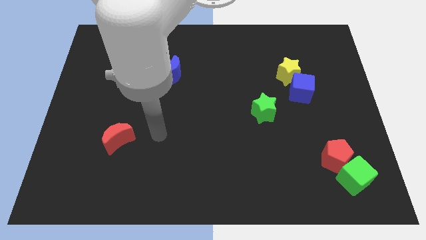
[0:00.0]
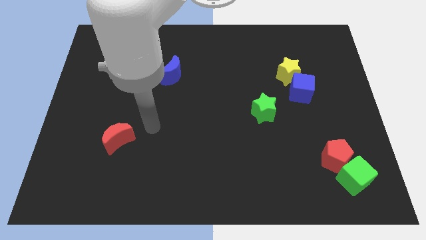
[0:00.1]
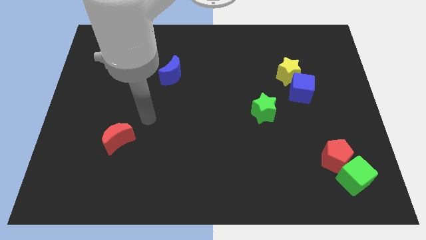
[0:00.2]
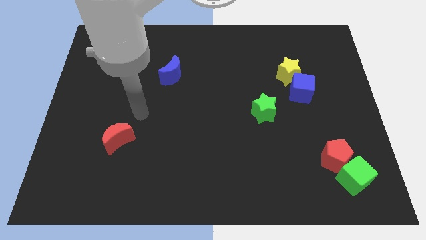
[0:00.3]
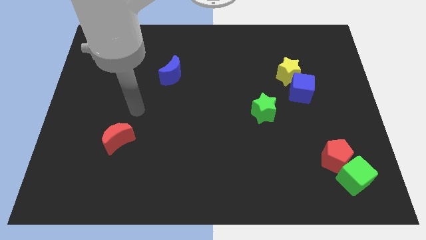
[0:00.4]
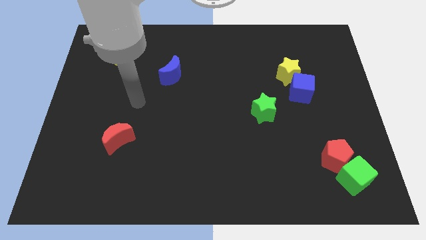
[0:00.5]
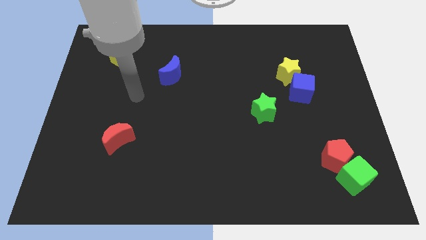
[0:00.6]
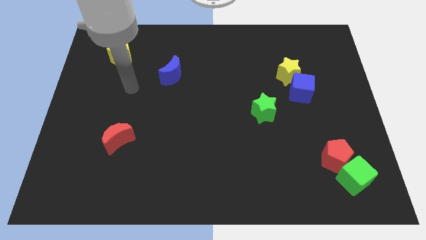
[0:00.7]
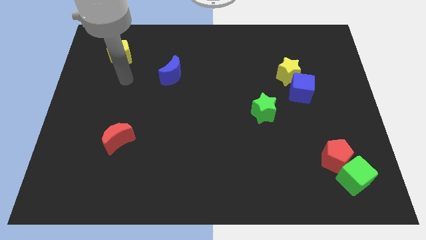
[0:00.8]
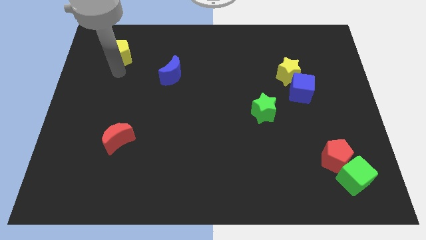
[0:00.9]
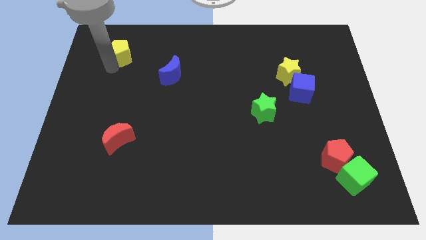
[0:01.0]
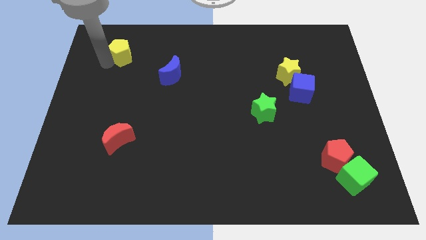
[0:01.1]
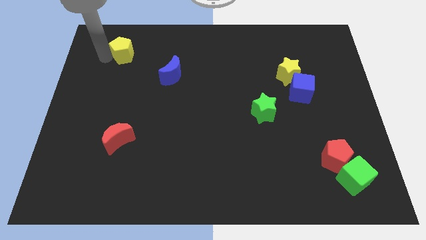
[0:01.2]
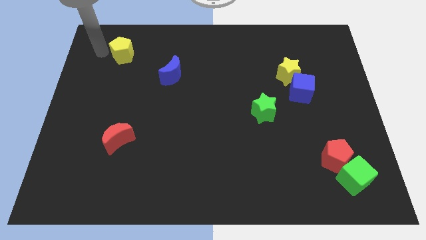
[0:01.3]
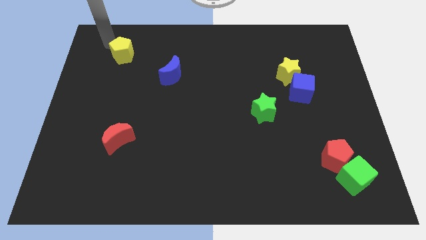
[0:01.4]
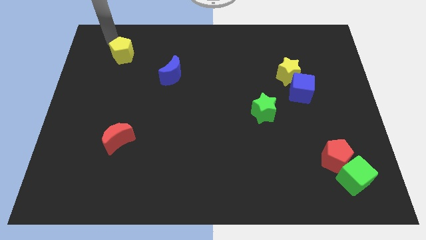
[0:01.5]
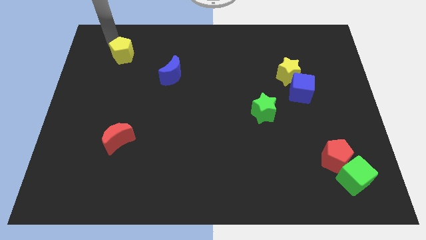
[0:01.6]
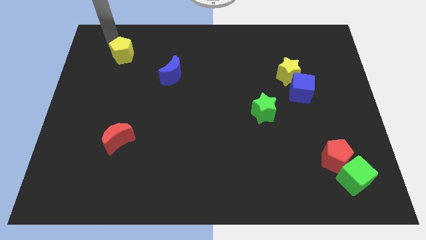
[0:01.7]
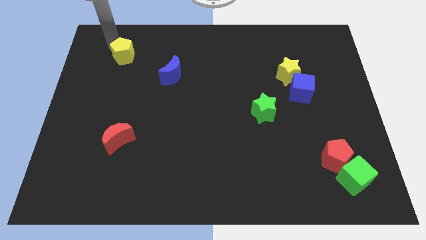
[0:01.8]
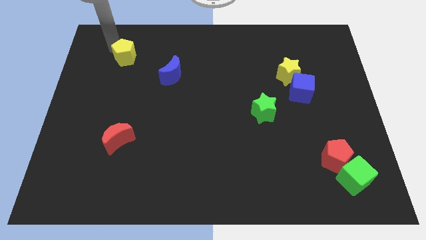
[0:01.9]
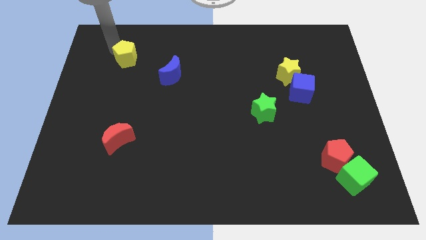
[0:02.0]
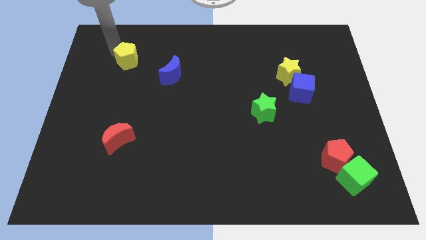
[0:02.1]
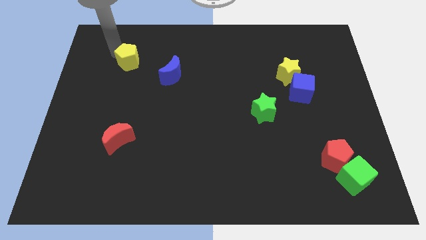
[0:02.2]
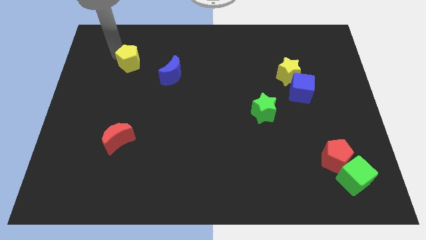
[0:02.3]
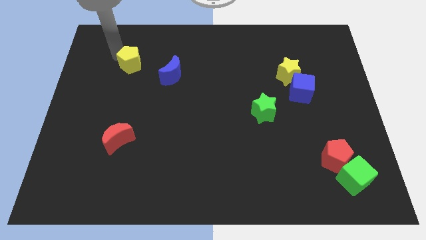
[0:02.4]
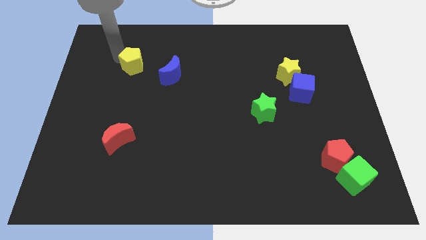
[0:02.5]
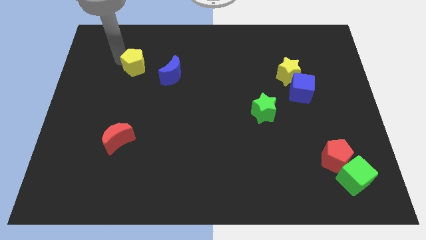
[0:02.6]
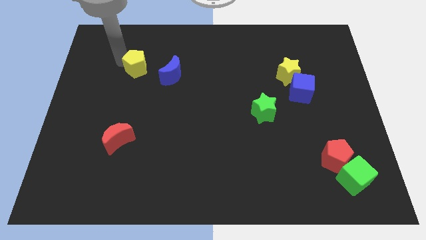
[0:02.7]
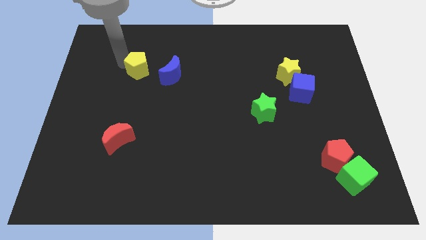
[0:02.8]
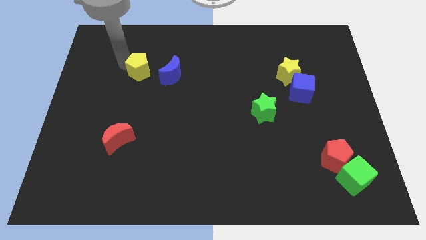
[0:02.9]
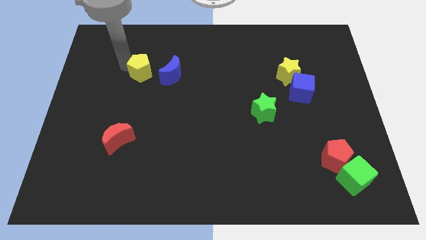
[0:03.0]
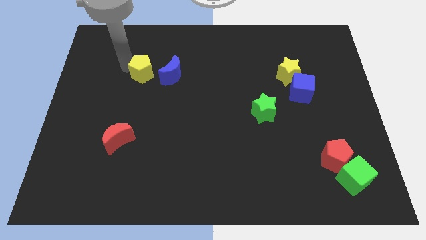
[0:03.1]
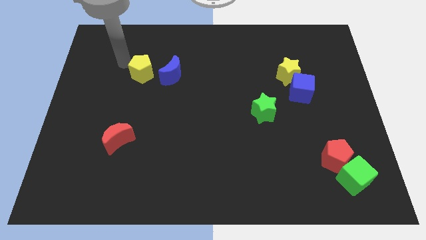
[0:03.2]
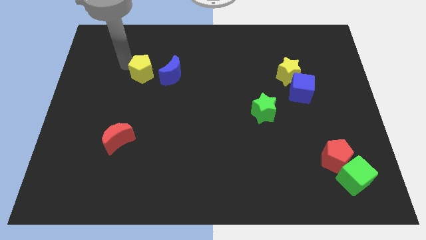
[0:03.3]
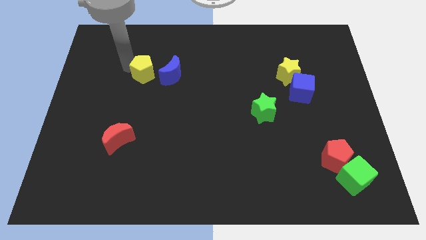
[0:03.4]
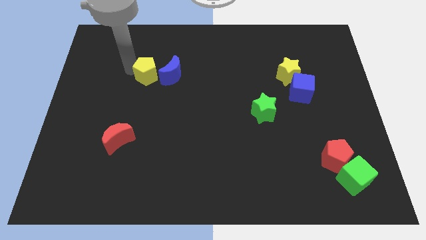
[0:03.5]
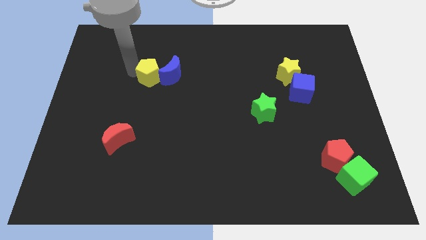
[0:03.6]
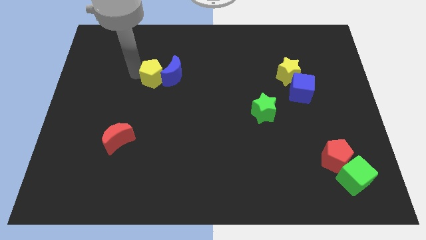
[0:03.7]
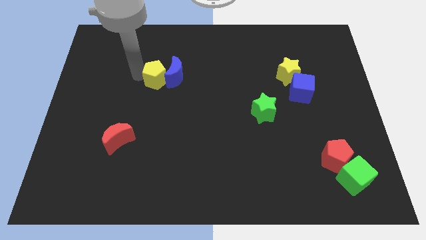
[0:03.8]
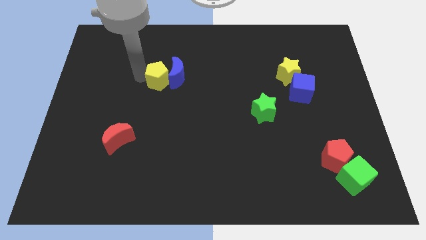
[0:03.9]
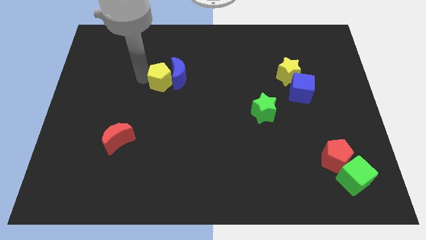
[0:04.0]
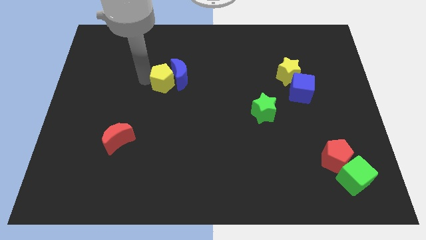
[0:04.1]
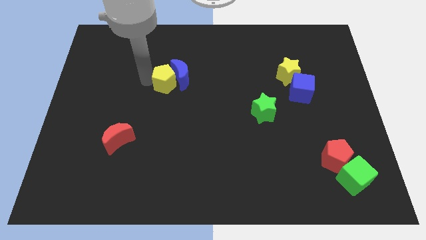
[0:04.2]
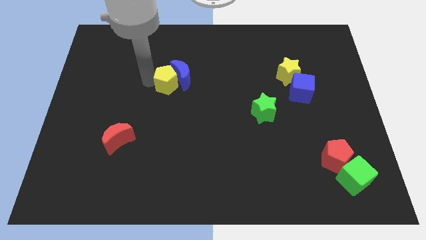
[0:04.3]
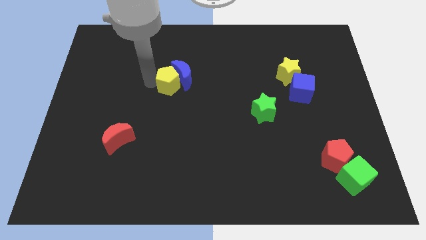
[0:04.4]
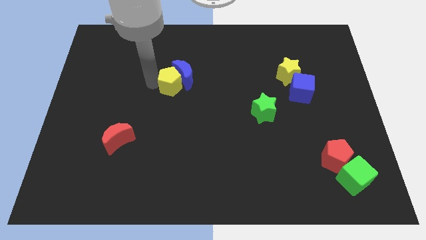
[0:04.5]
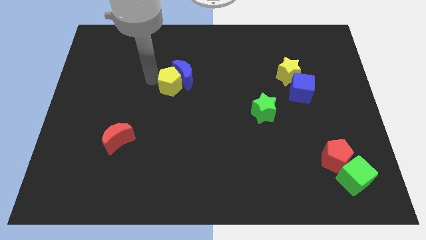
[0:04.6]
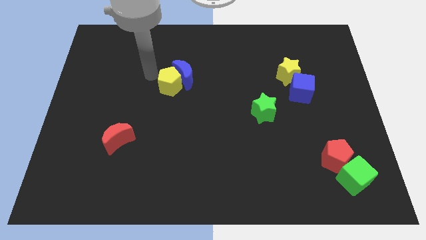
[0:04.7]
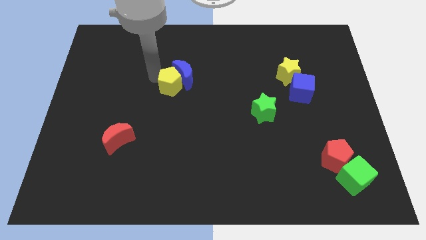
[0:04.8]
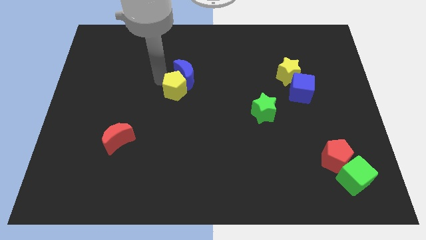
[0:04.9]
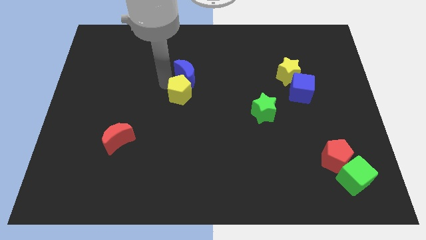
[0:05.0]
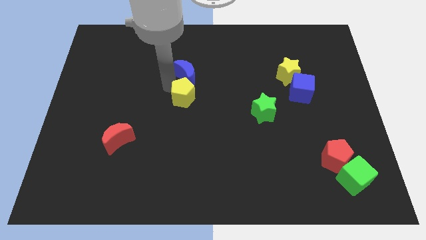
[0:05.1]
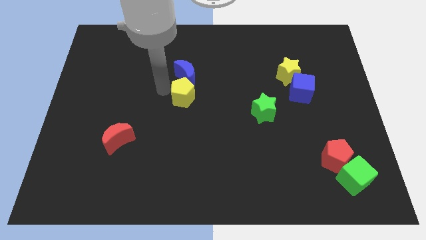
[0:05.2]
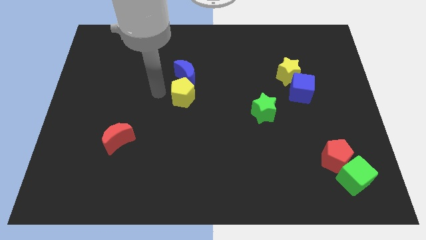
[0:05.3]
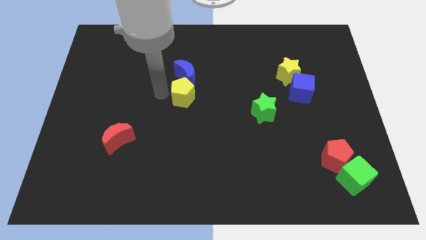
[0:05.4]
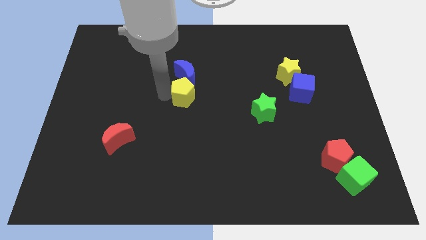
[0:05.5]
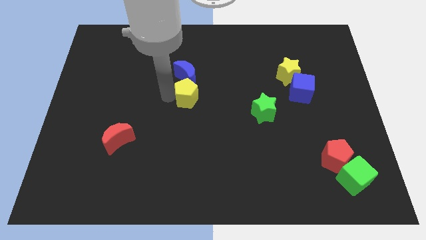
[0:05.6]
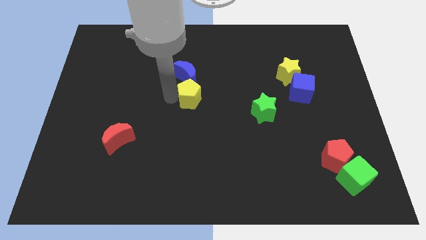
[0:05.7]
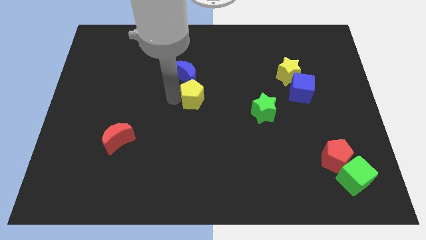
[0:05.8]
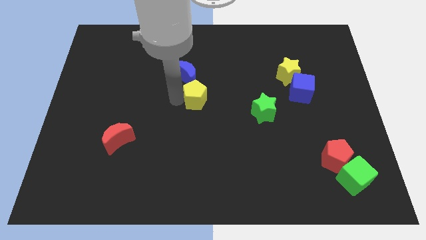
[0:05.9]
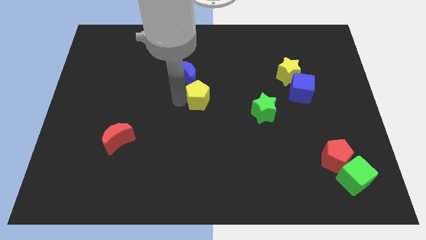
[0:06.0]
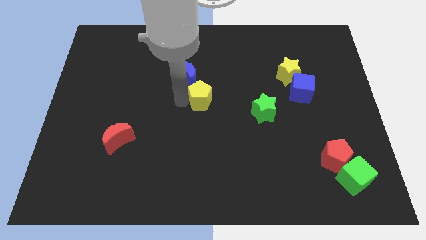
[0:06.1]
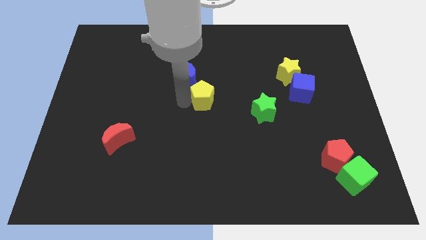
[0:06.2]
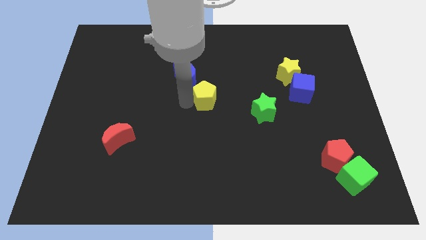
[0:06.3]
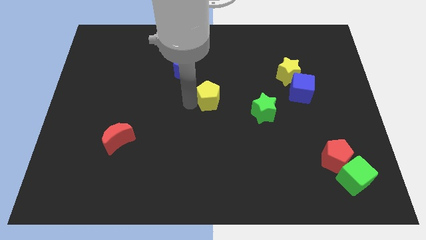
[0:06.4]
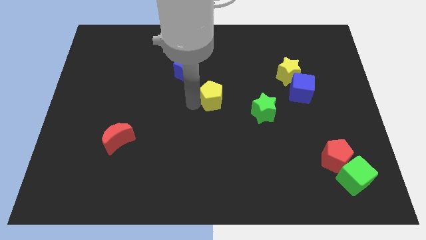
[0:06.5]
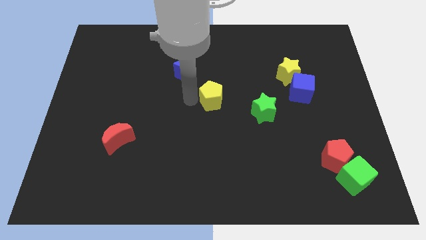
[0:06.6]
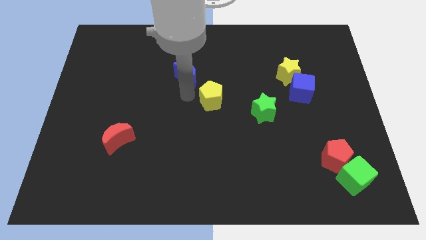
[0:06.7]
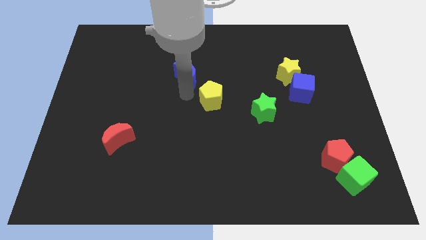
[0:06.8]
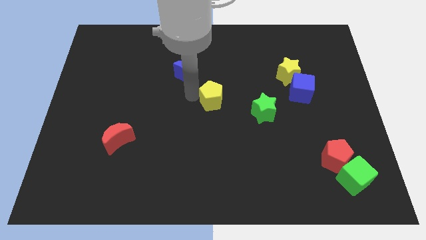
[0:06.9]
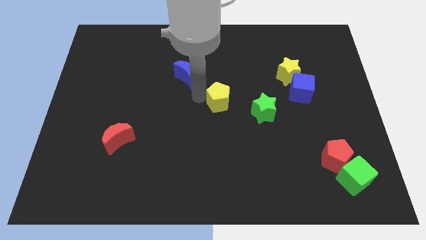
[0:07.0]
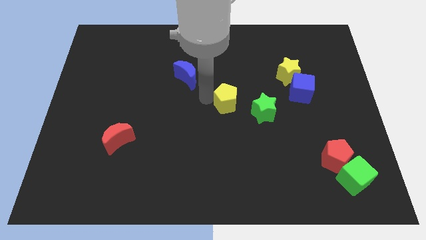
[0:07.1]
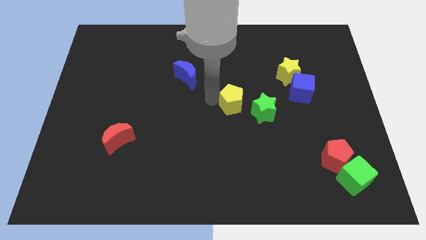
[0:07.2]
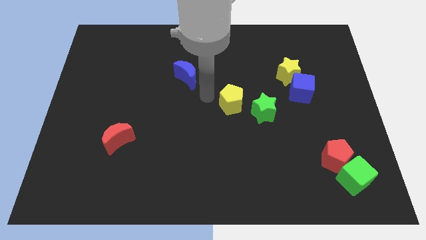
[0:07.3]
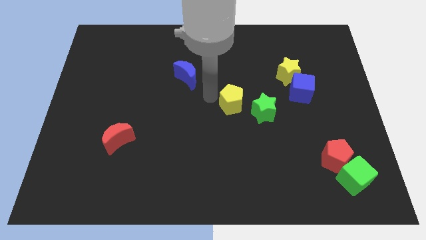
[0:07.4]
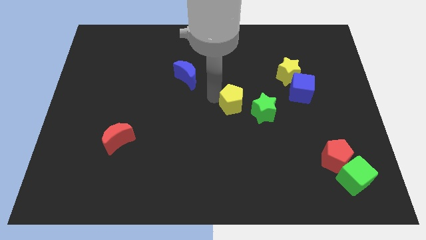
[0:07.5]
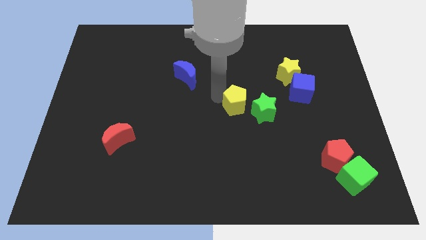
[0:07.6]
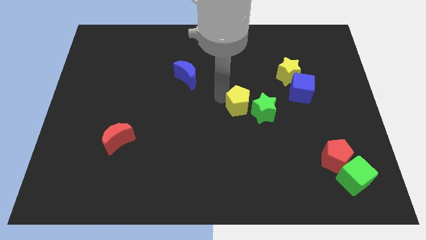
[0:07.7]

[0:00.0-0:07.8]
move the yellow pentagon towards the green star

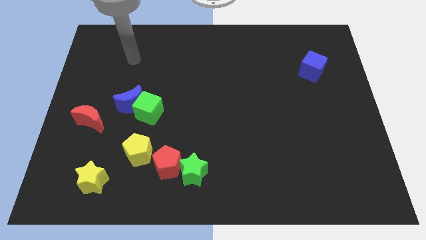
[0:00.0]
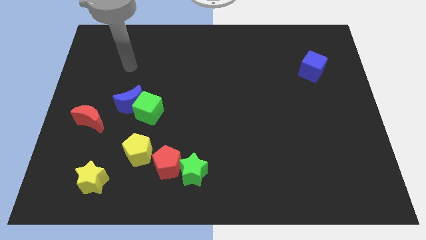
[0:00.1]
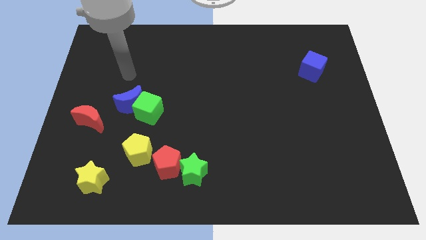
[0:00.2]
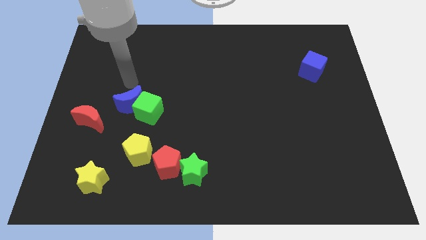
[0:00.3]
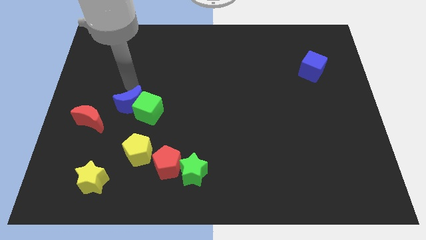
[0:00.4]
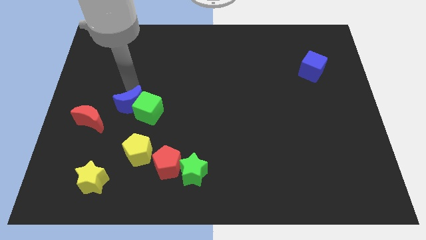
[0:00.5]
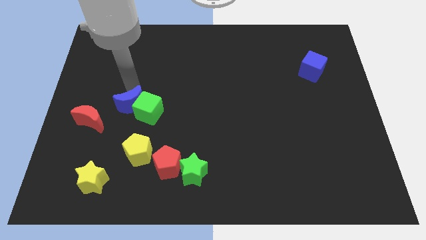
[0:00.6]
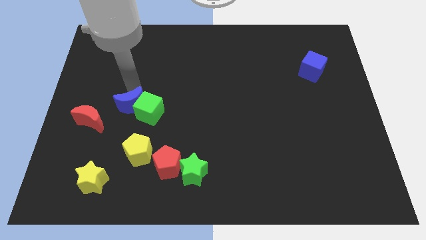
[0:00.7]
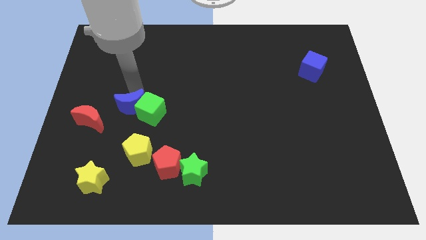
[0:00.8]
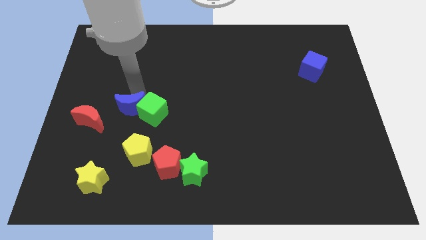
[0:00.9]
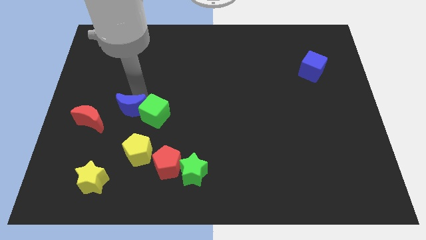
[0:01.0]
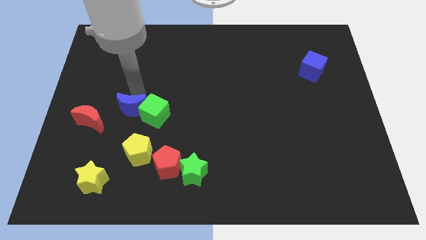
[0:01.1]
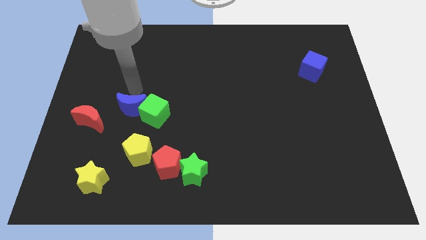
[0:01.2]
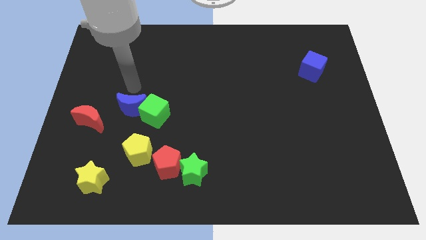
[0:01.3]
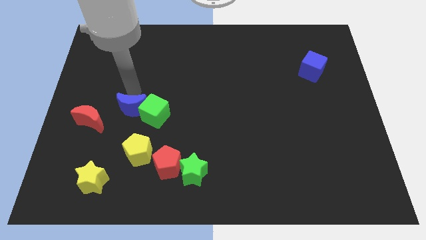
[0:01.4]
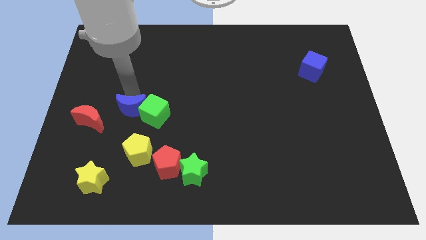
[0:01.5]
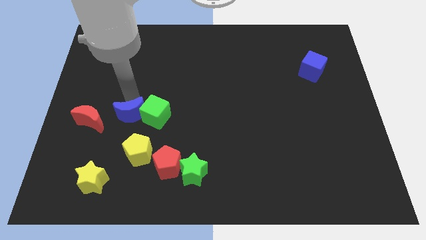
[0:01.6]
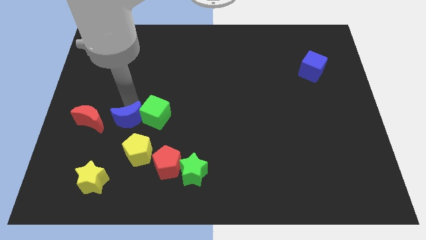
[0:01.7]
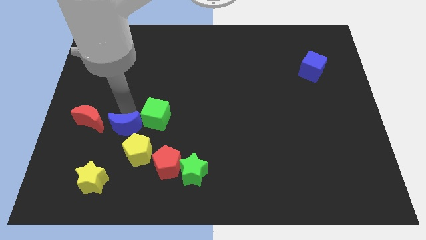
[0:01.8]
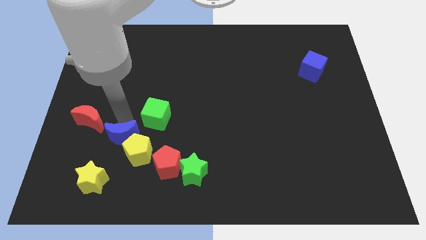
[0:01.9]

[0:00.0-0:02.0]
slide the blue moon close to the yellow pentagon
